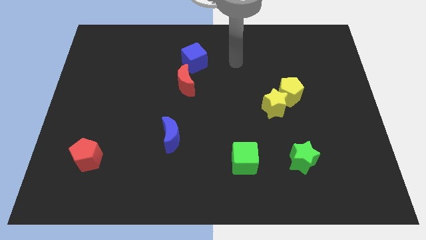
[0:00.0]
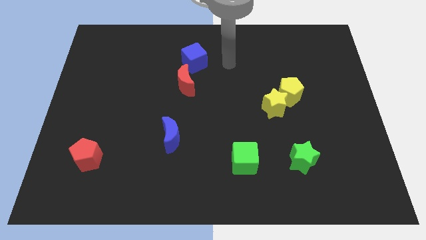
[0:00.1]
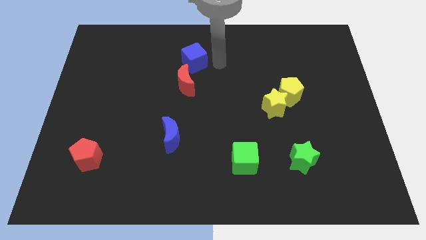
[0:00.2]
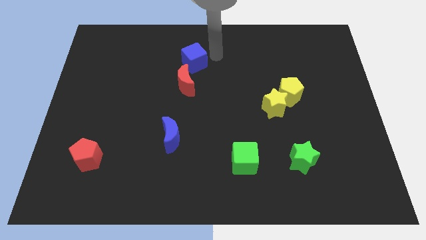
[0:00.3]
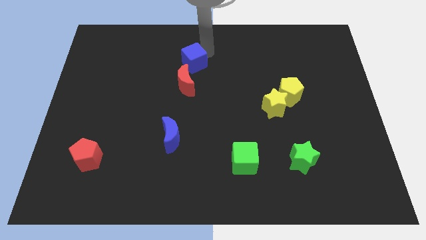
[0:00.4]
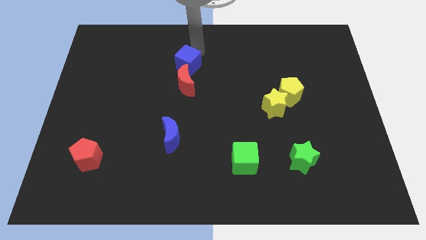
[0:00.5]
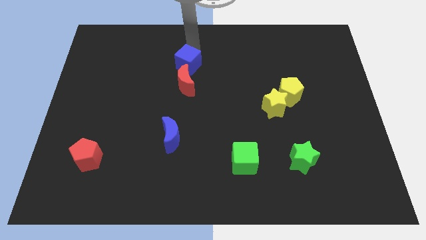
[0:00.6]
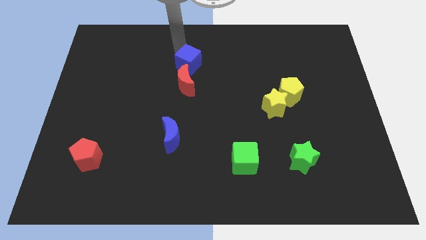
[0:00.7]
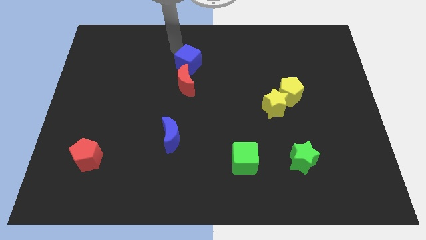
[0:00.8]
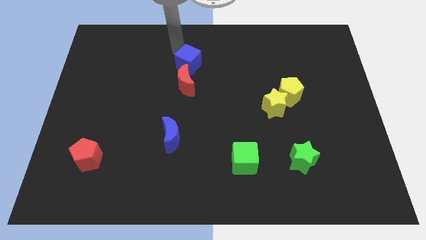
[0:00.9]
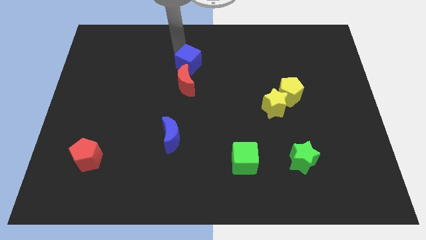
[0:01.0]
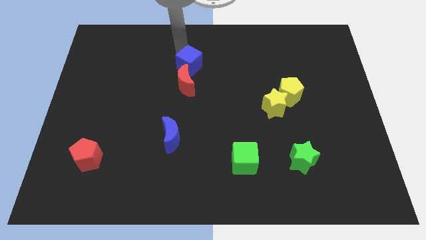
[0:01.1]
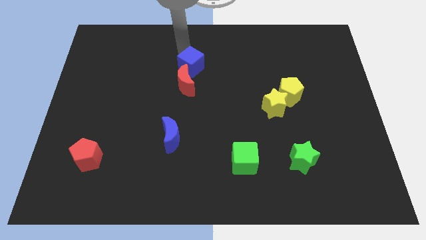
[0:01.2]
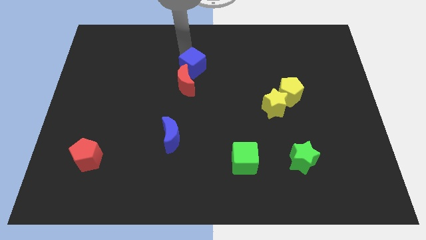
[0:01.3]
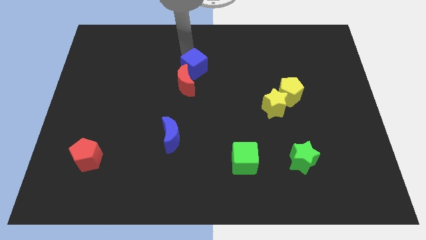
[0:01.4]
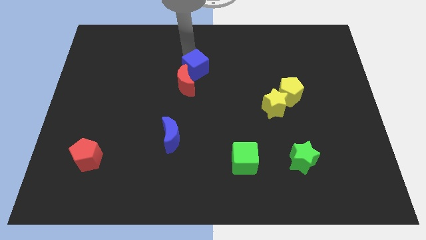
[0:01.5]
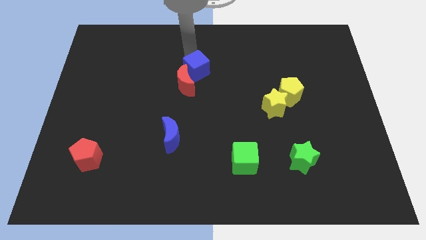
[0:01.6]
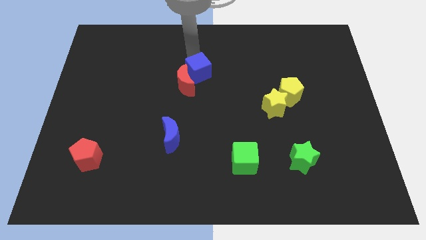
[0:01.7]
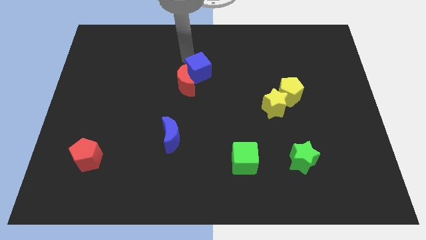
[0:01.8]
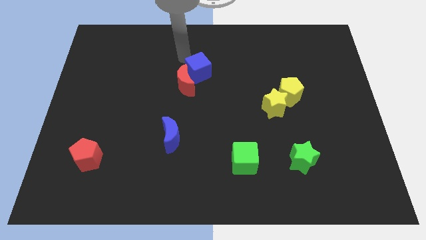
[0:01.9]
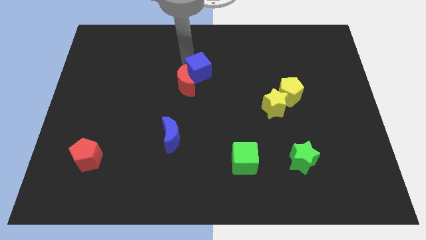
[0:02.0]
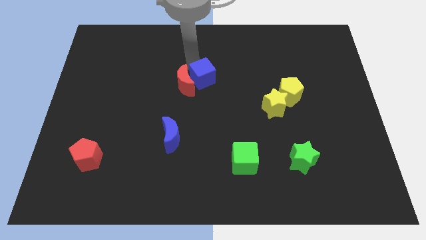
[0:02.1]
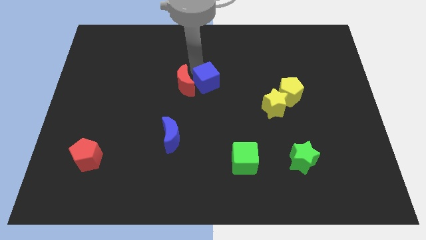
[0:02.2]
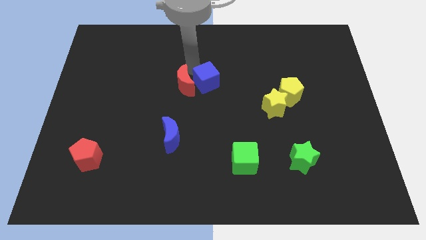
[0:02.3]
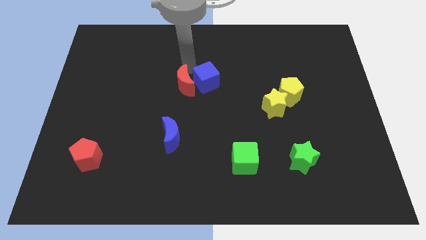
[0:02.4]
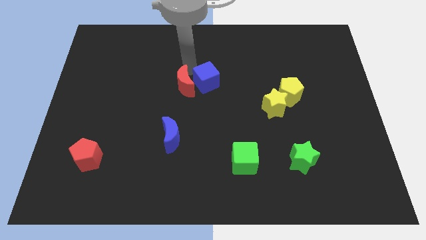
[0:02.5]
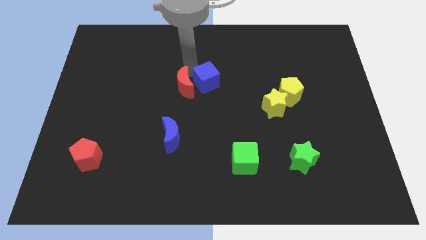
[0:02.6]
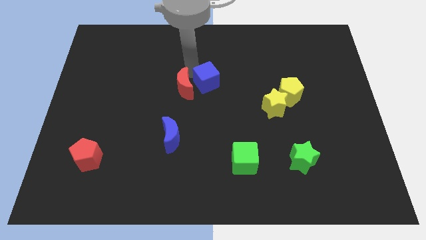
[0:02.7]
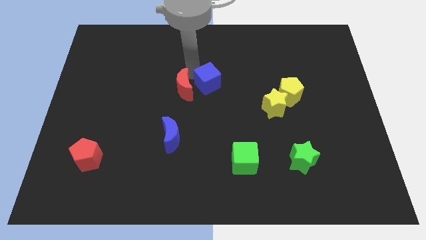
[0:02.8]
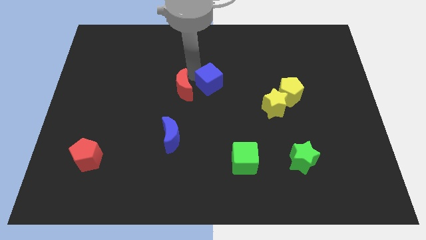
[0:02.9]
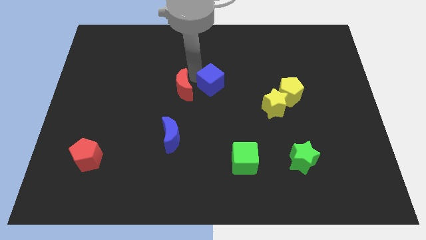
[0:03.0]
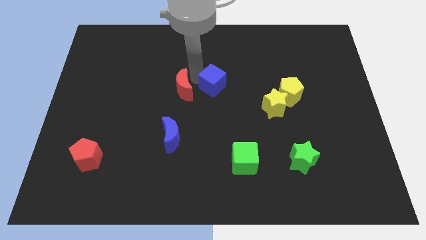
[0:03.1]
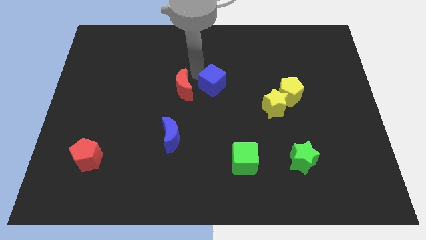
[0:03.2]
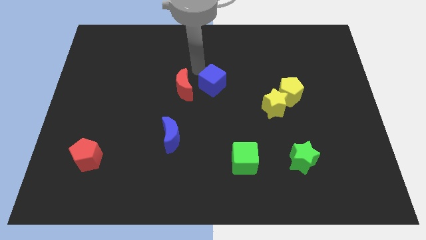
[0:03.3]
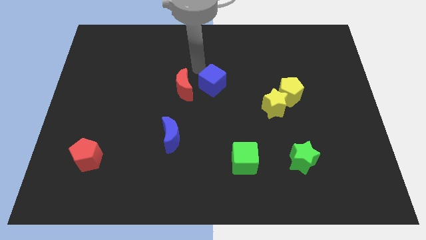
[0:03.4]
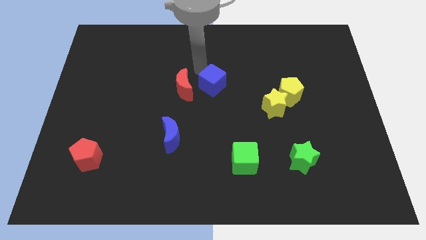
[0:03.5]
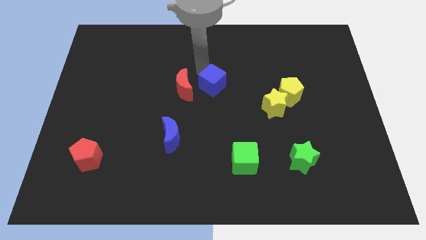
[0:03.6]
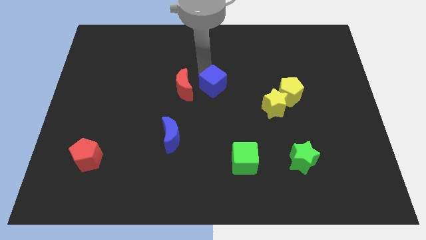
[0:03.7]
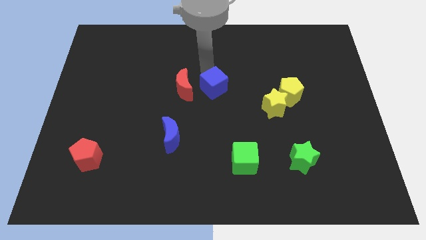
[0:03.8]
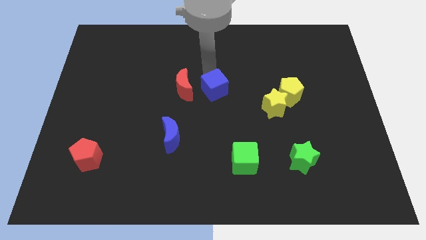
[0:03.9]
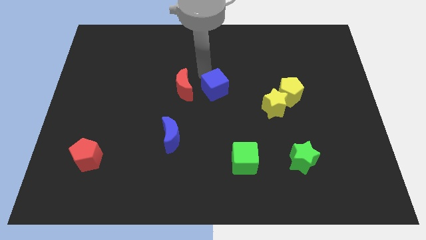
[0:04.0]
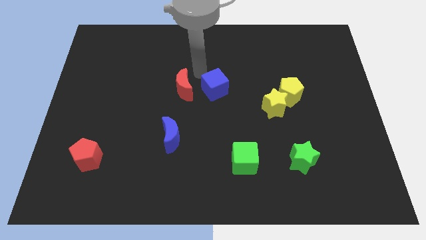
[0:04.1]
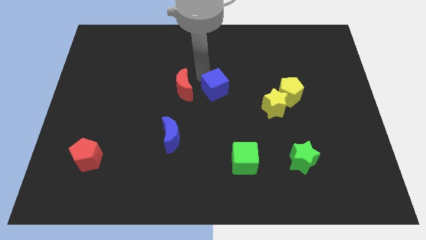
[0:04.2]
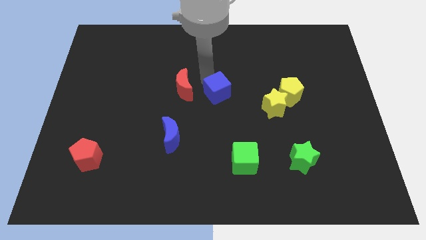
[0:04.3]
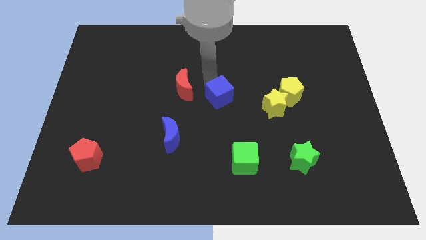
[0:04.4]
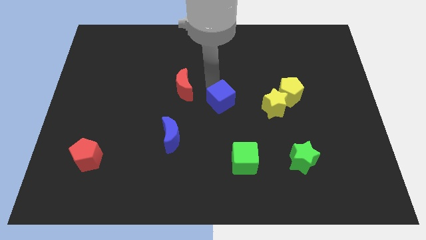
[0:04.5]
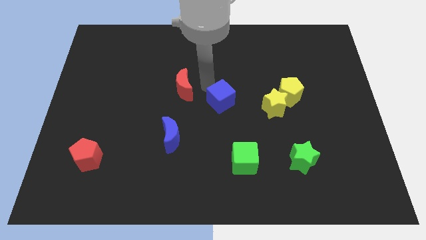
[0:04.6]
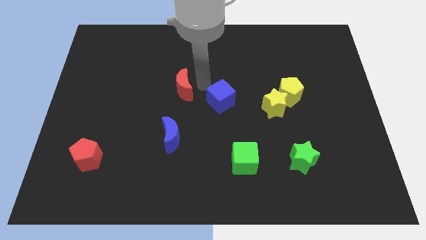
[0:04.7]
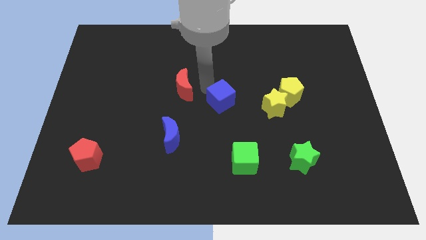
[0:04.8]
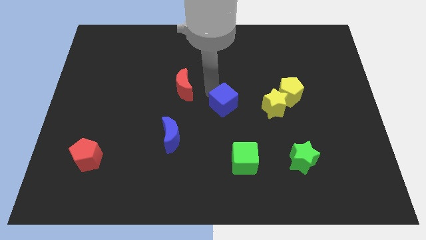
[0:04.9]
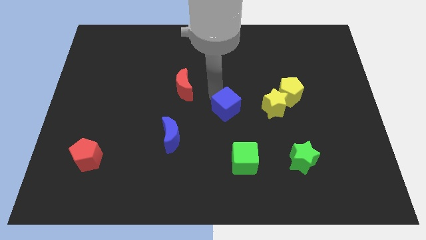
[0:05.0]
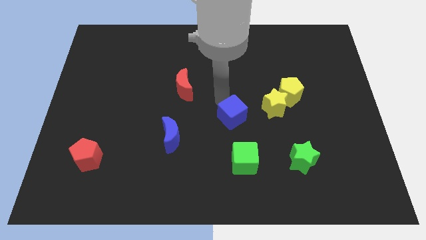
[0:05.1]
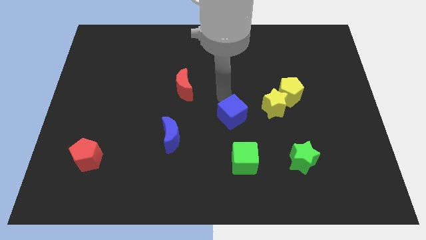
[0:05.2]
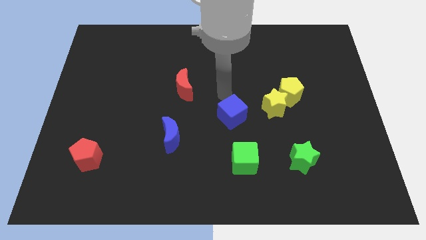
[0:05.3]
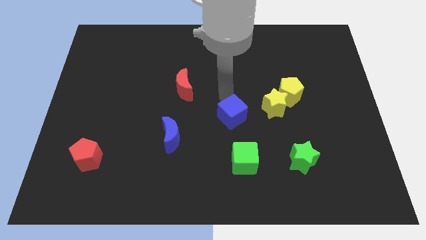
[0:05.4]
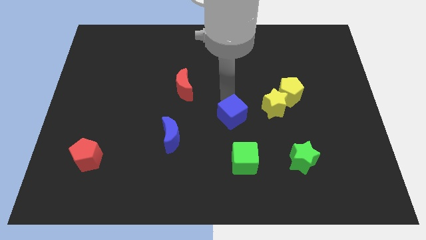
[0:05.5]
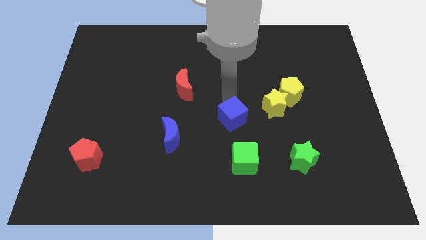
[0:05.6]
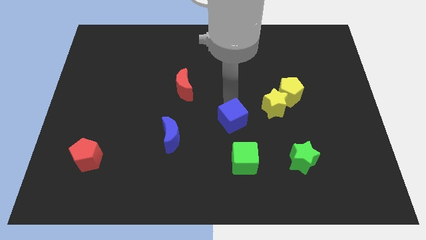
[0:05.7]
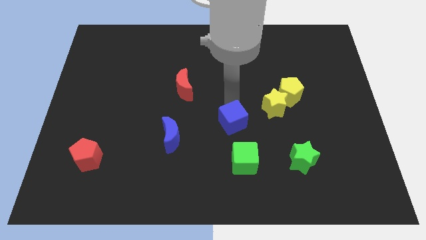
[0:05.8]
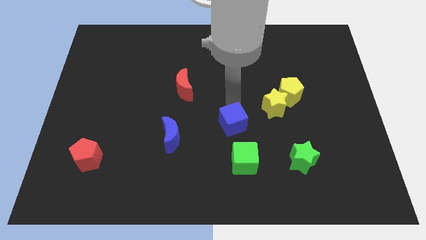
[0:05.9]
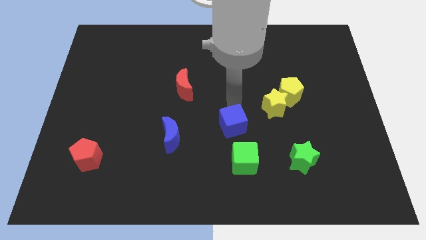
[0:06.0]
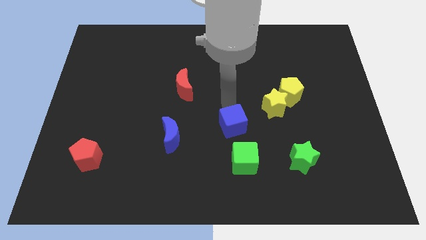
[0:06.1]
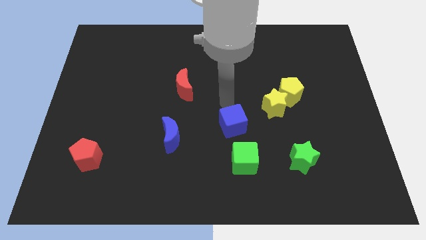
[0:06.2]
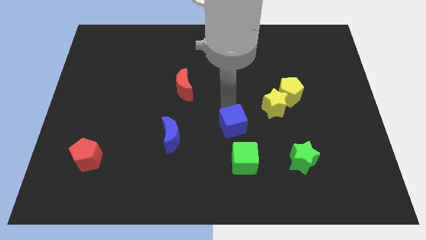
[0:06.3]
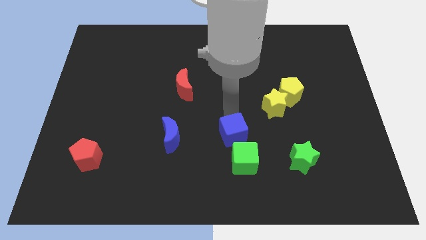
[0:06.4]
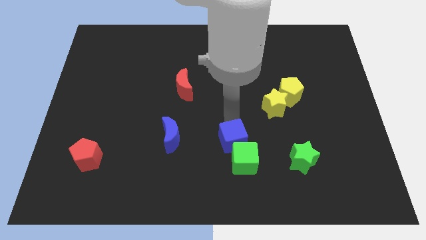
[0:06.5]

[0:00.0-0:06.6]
slide the blue cube next to the green cube

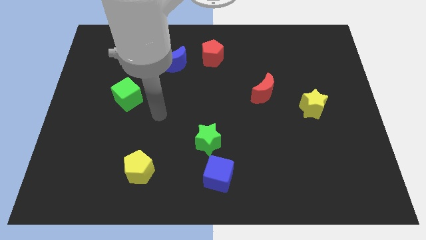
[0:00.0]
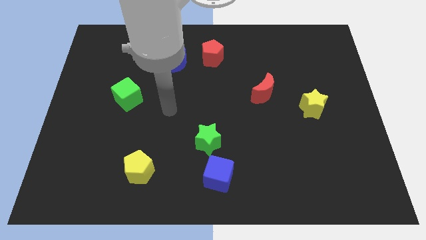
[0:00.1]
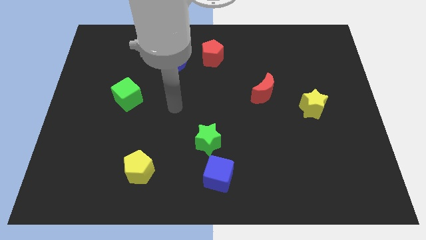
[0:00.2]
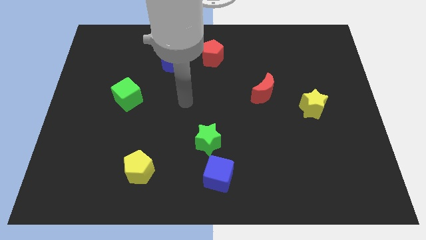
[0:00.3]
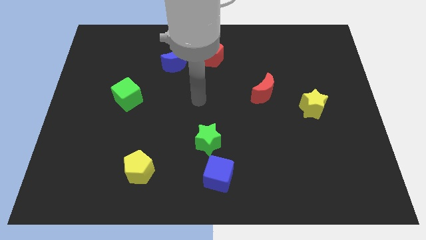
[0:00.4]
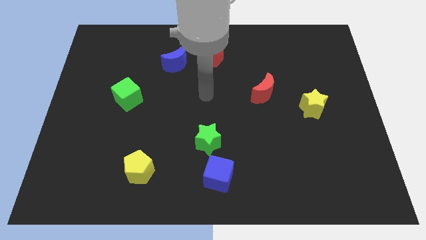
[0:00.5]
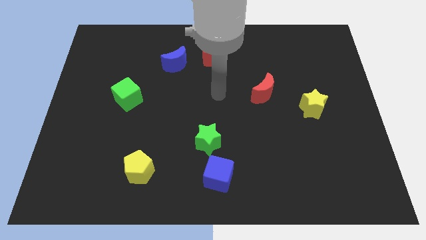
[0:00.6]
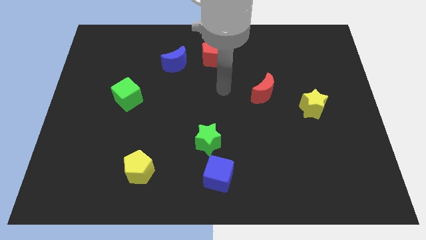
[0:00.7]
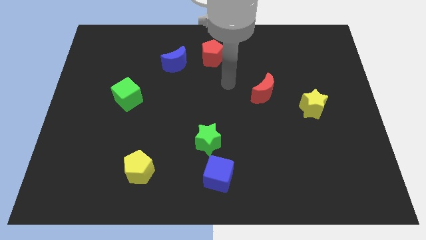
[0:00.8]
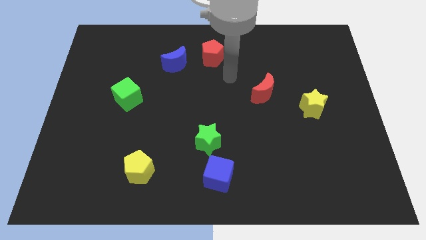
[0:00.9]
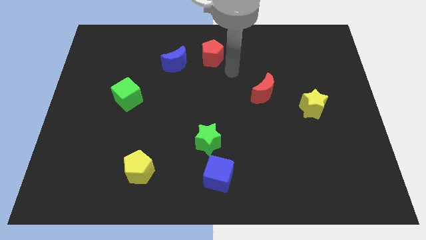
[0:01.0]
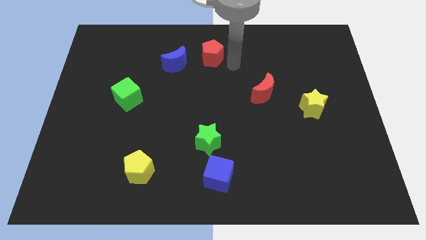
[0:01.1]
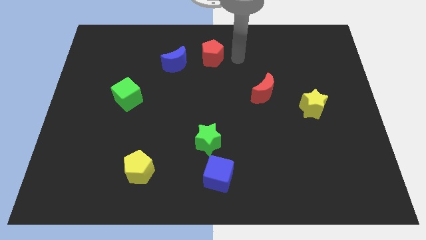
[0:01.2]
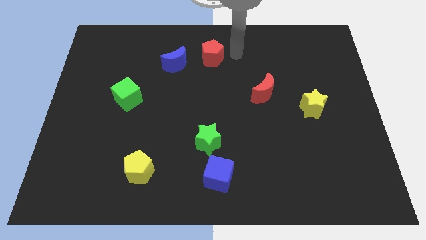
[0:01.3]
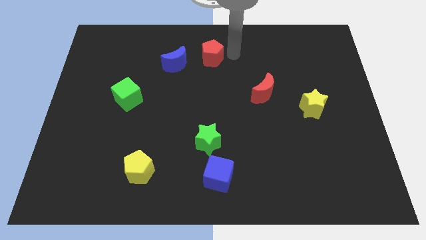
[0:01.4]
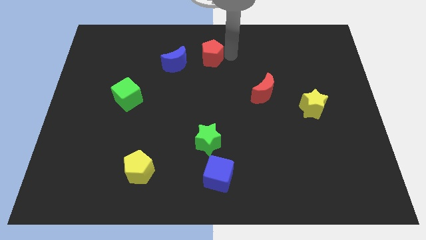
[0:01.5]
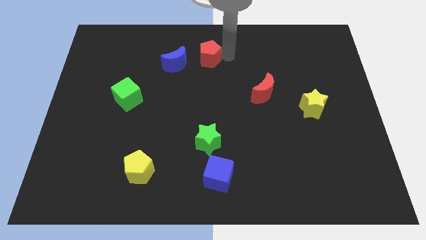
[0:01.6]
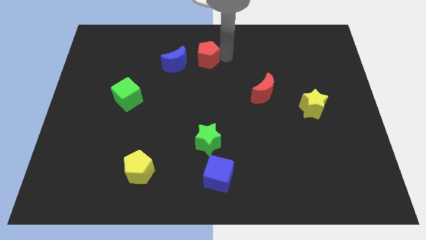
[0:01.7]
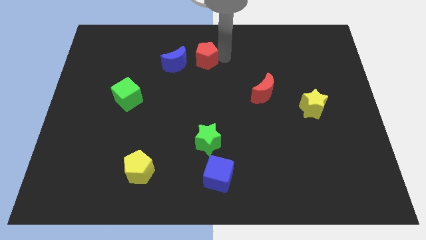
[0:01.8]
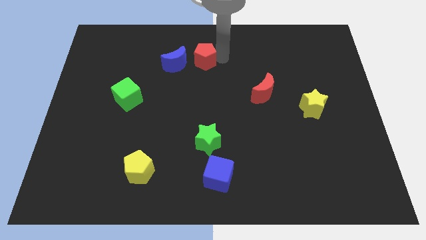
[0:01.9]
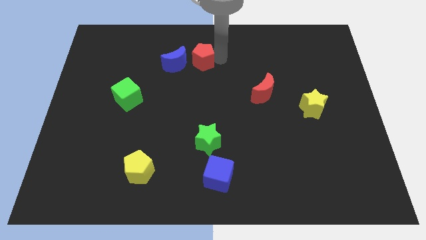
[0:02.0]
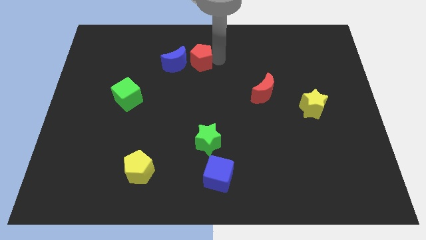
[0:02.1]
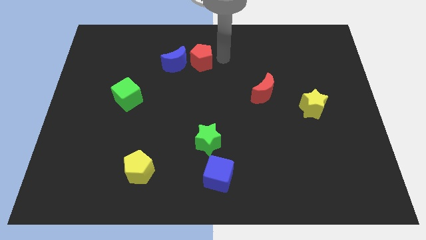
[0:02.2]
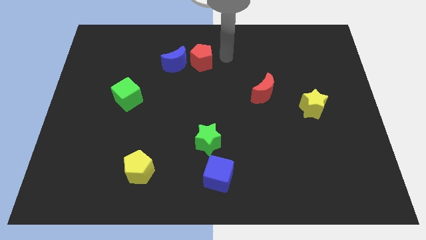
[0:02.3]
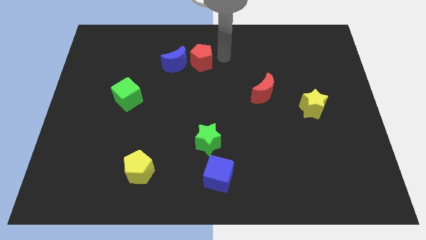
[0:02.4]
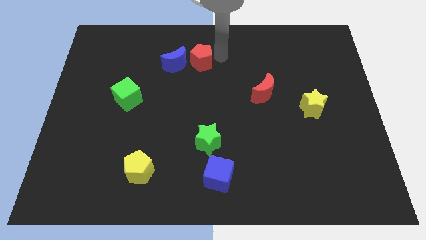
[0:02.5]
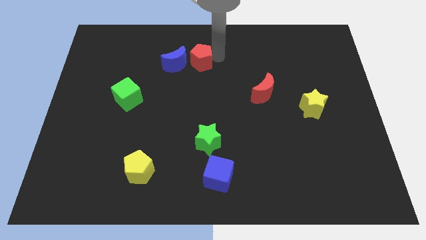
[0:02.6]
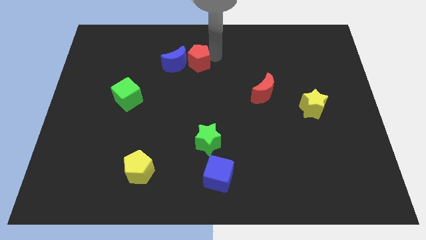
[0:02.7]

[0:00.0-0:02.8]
put the red pentagon close to the blue moon
